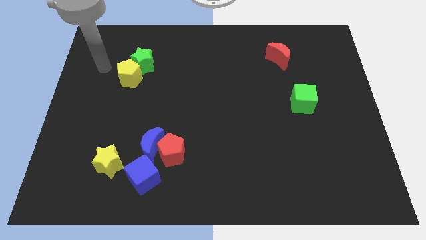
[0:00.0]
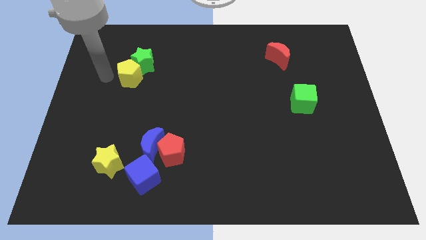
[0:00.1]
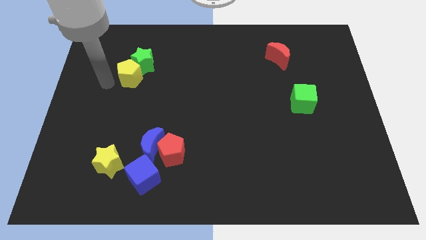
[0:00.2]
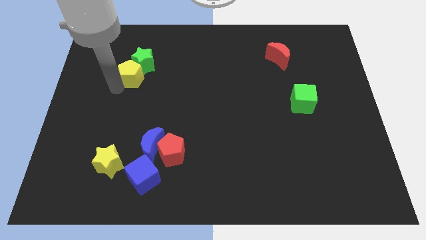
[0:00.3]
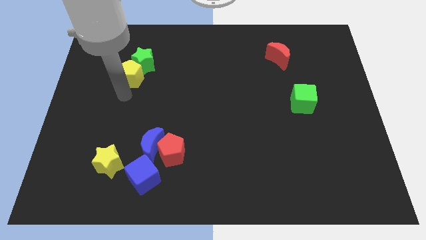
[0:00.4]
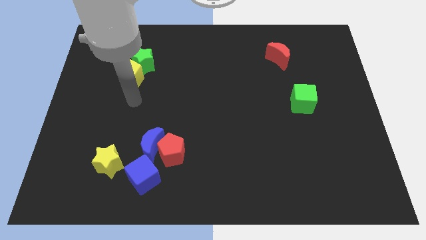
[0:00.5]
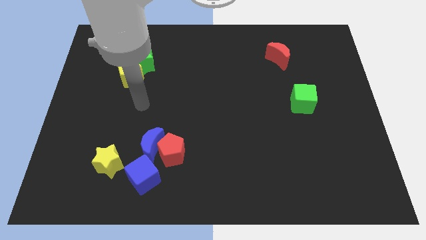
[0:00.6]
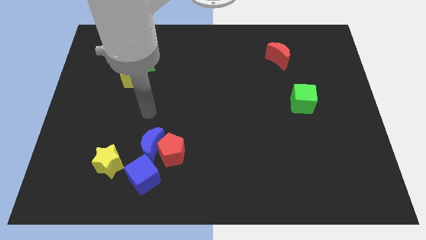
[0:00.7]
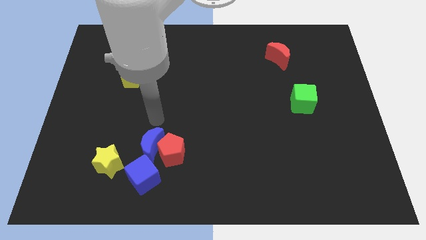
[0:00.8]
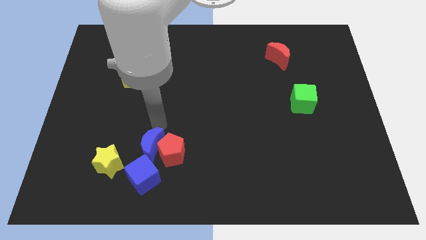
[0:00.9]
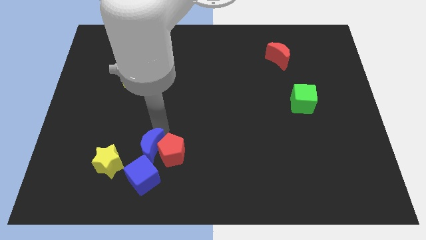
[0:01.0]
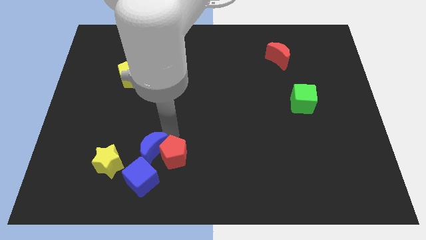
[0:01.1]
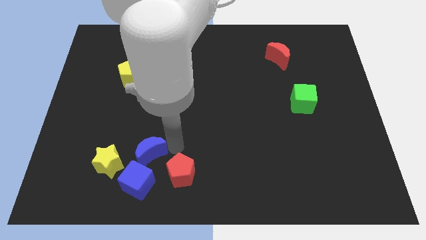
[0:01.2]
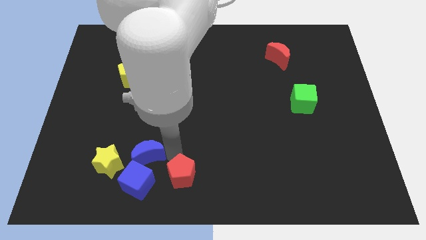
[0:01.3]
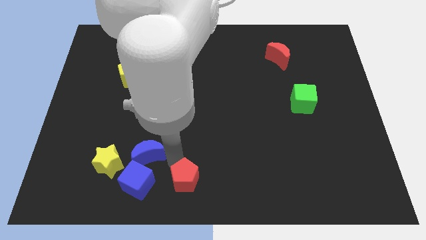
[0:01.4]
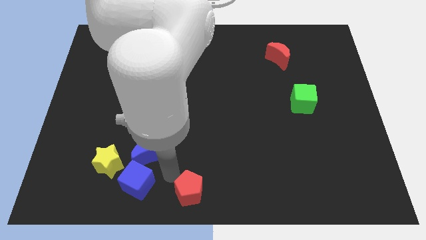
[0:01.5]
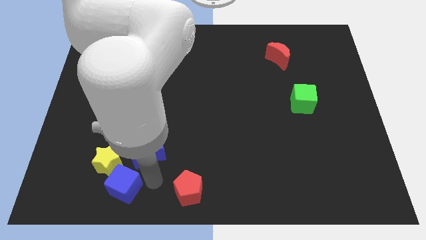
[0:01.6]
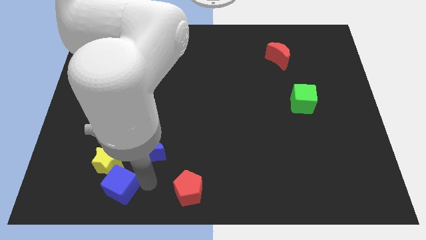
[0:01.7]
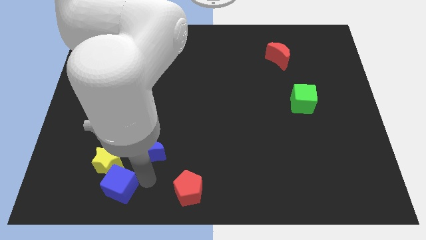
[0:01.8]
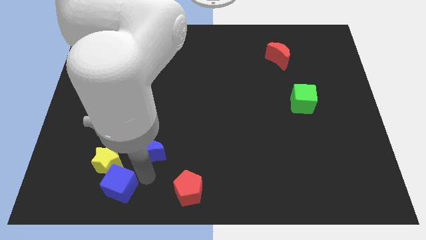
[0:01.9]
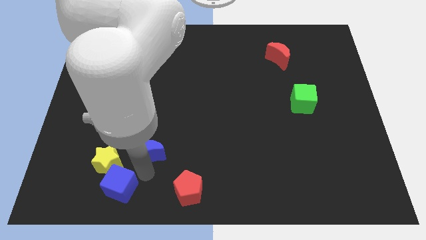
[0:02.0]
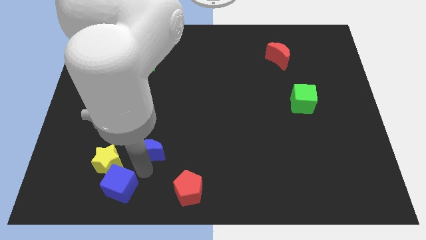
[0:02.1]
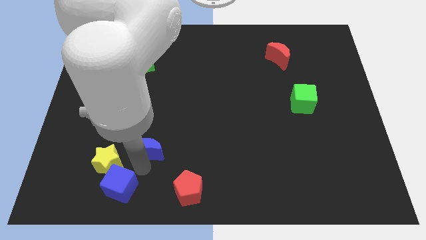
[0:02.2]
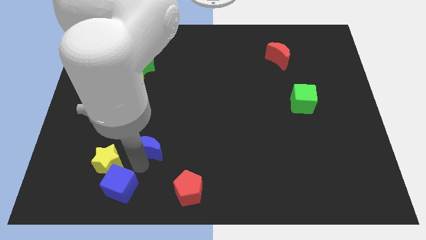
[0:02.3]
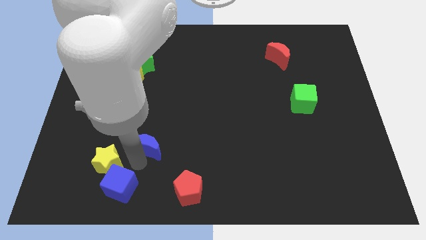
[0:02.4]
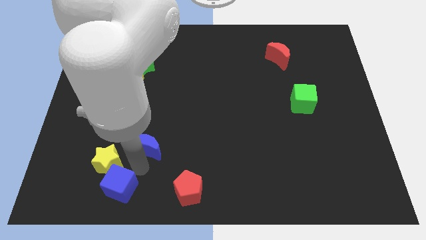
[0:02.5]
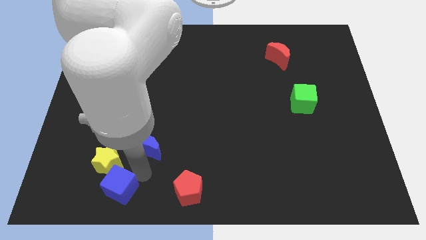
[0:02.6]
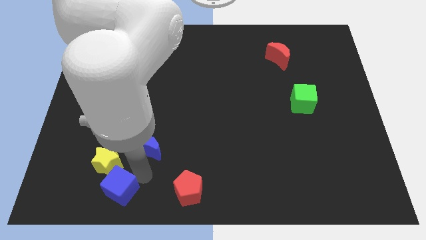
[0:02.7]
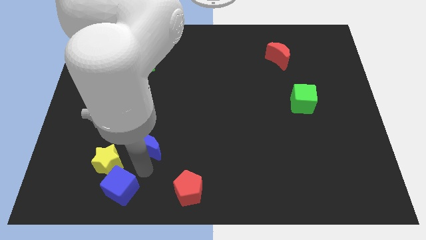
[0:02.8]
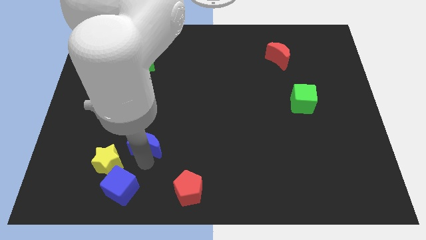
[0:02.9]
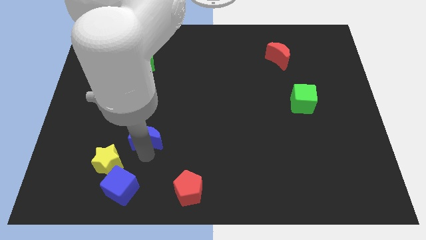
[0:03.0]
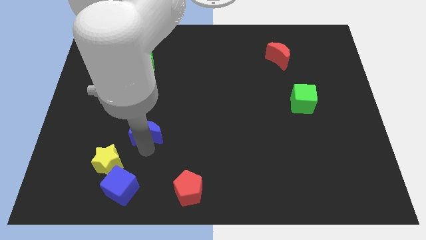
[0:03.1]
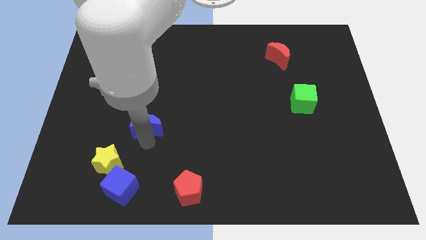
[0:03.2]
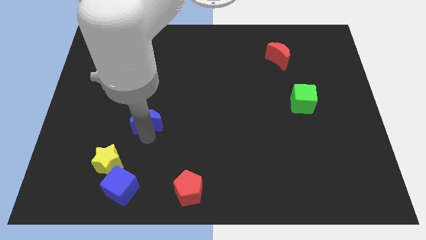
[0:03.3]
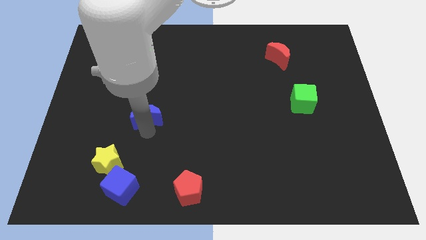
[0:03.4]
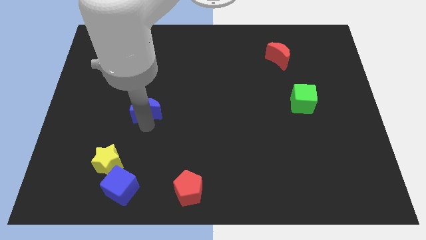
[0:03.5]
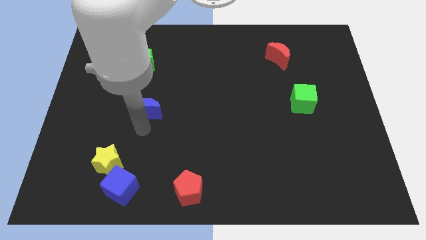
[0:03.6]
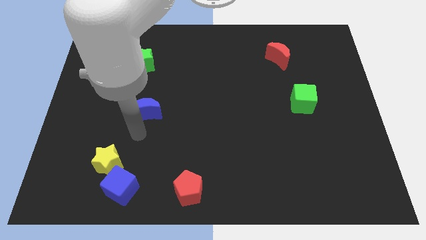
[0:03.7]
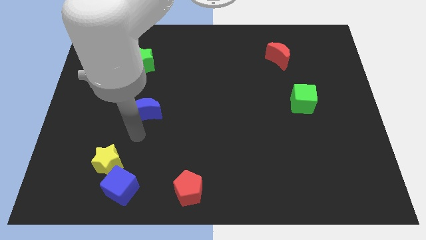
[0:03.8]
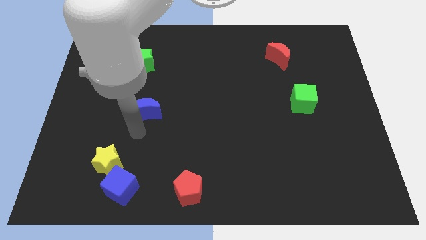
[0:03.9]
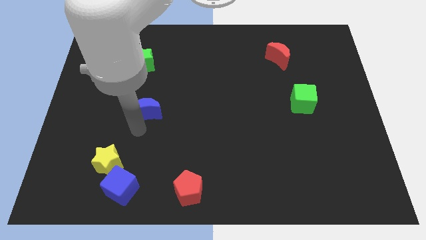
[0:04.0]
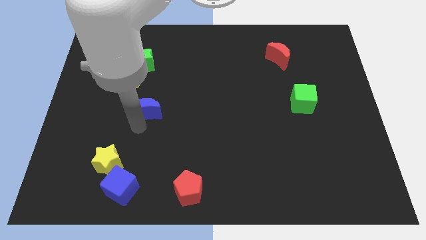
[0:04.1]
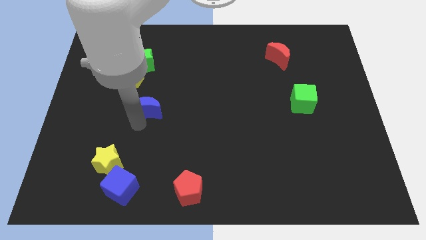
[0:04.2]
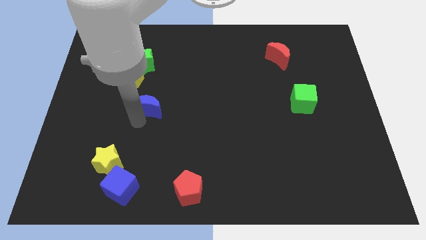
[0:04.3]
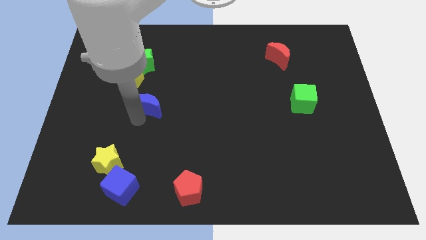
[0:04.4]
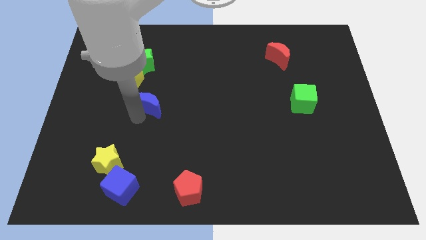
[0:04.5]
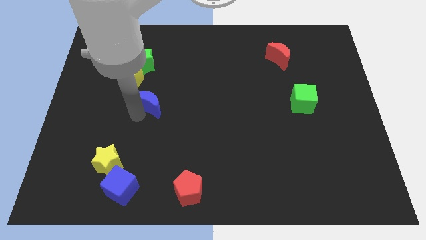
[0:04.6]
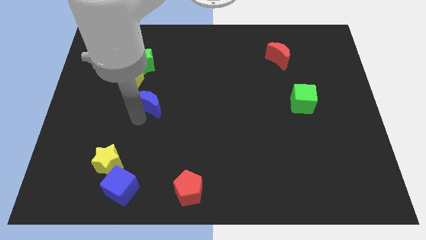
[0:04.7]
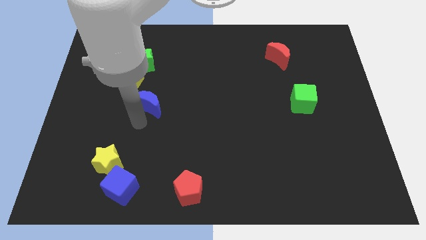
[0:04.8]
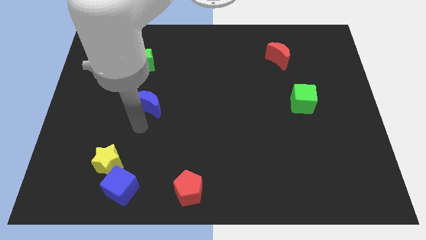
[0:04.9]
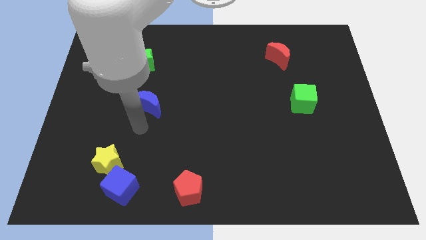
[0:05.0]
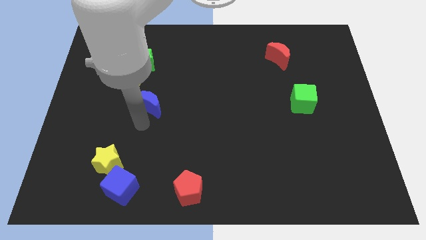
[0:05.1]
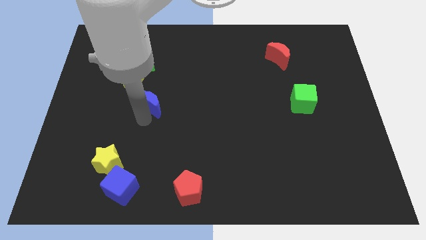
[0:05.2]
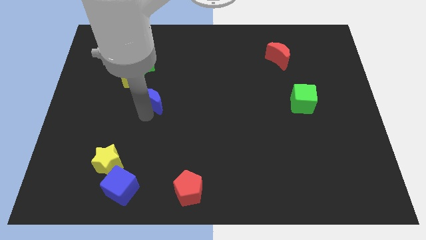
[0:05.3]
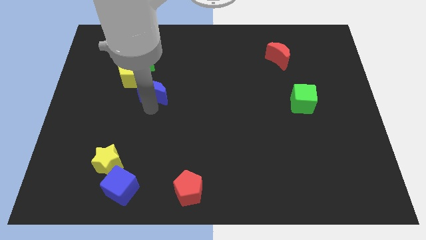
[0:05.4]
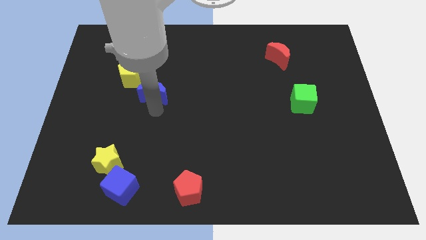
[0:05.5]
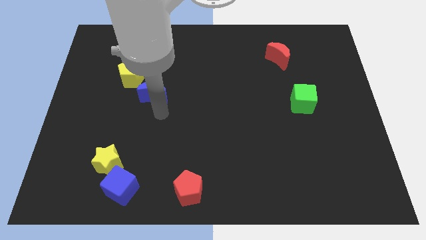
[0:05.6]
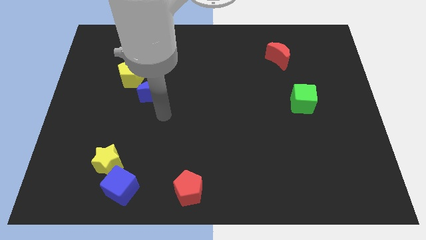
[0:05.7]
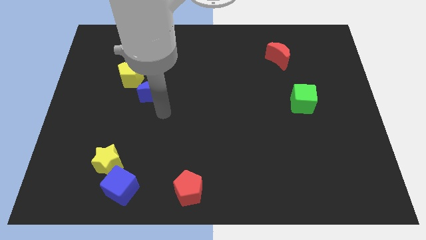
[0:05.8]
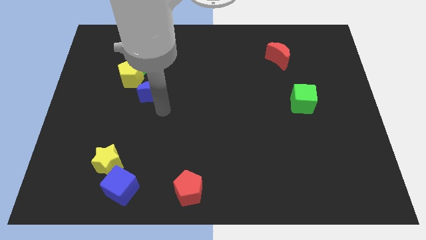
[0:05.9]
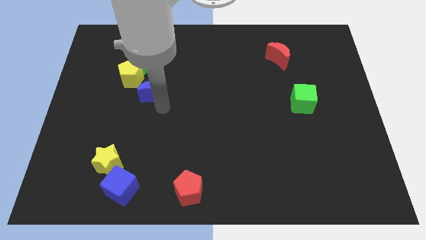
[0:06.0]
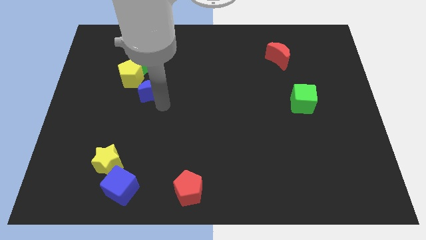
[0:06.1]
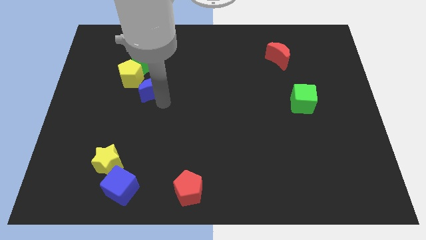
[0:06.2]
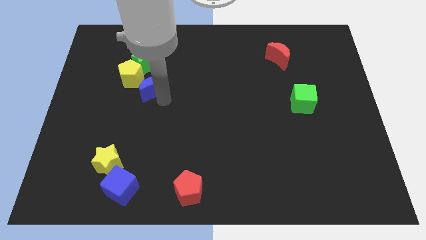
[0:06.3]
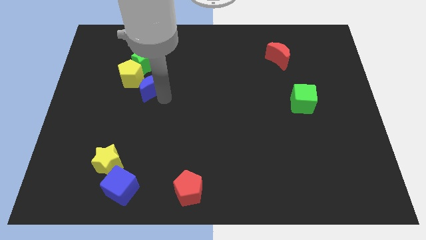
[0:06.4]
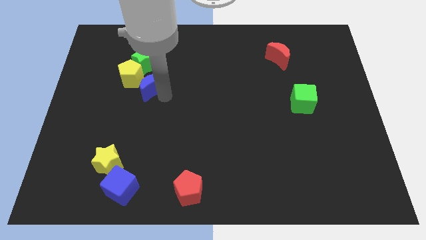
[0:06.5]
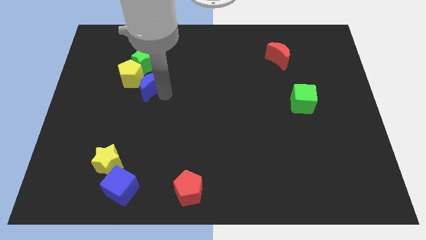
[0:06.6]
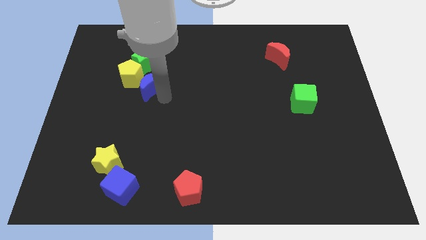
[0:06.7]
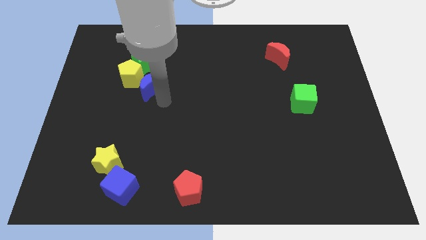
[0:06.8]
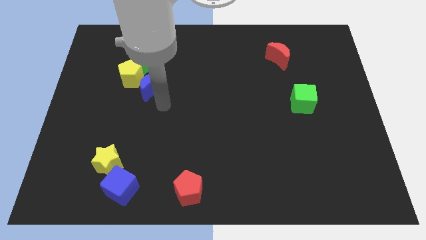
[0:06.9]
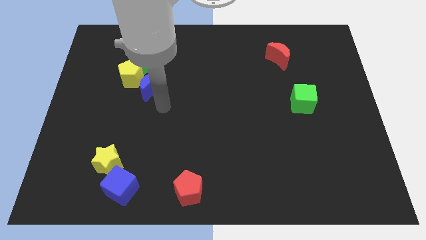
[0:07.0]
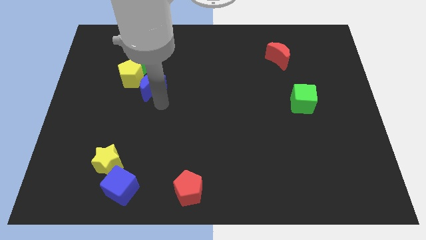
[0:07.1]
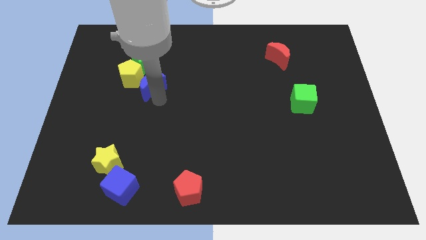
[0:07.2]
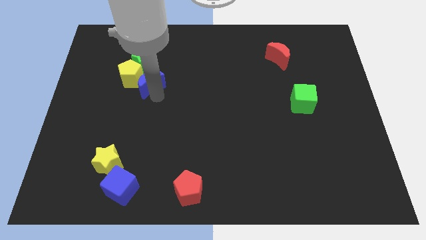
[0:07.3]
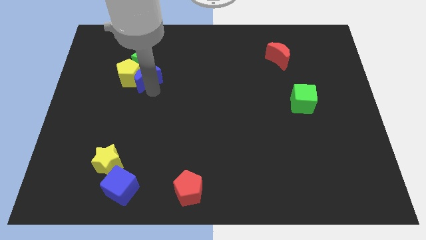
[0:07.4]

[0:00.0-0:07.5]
slide the blue moon towards the green star

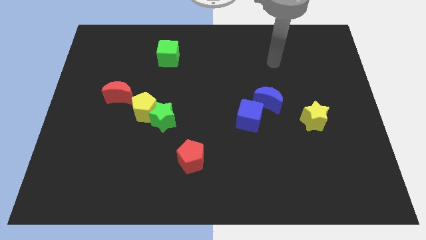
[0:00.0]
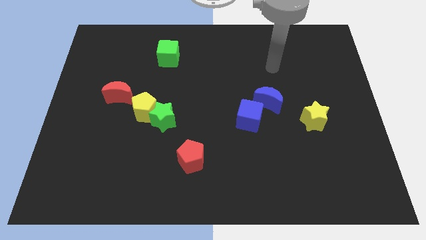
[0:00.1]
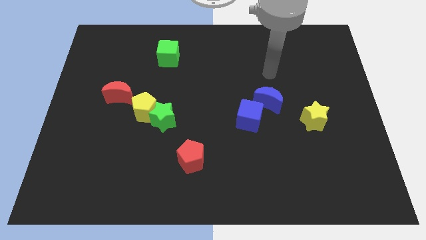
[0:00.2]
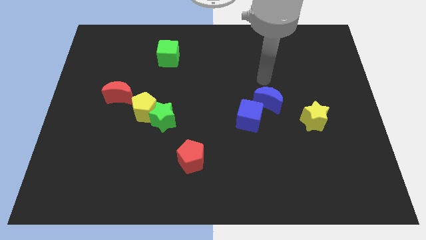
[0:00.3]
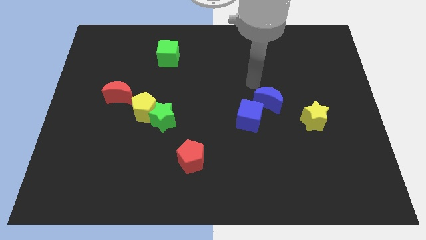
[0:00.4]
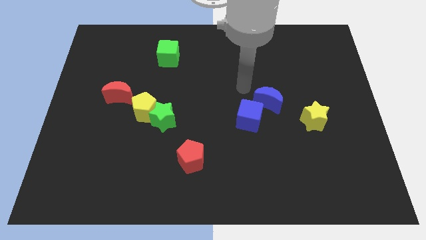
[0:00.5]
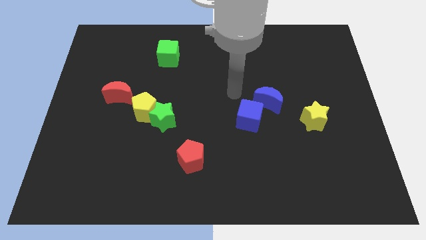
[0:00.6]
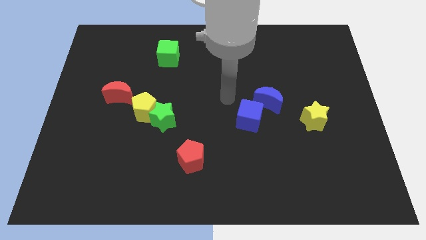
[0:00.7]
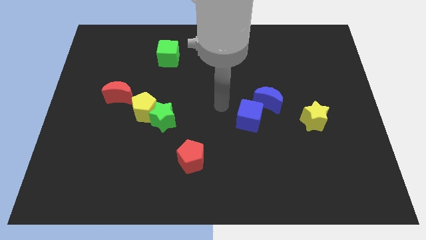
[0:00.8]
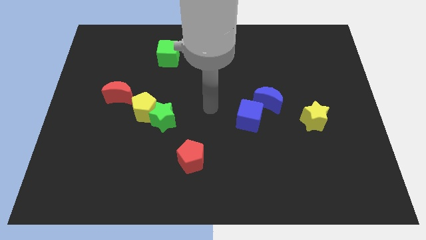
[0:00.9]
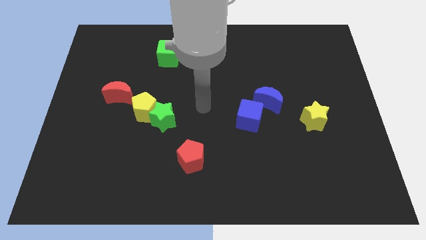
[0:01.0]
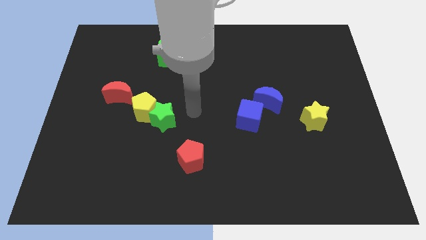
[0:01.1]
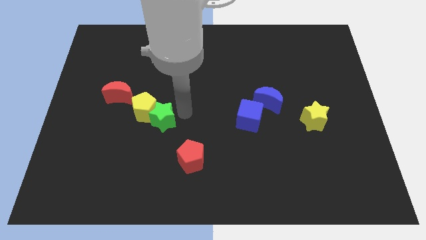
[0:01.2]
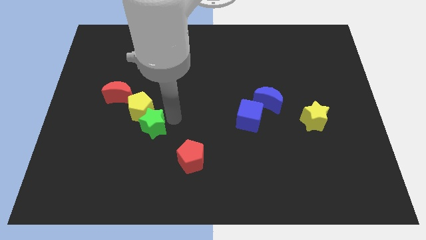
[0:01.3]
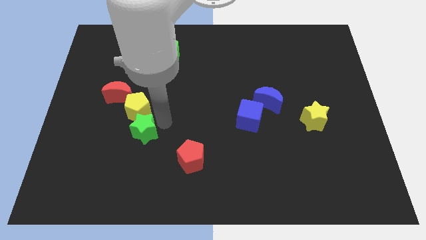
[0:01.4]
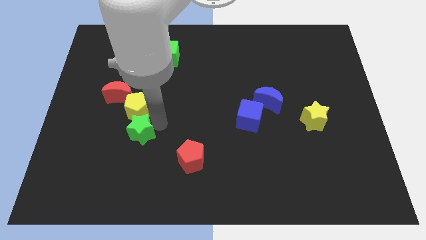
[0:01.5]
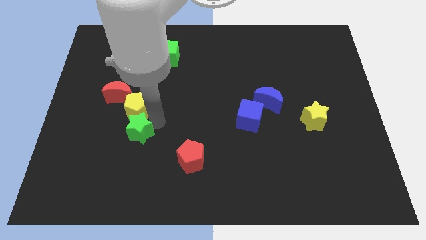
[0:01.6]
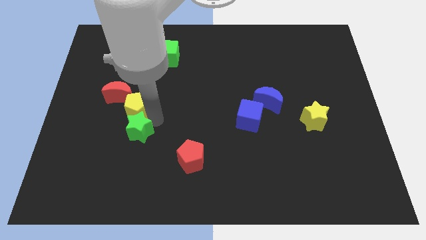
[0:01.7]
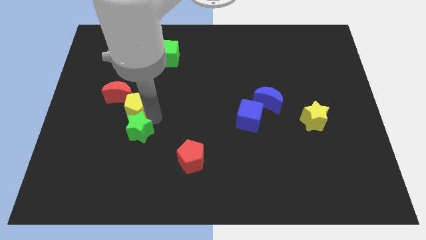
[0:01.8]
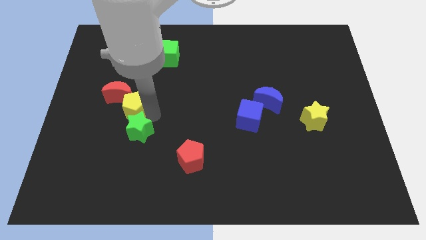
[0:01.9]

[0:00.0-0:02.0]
push the yellow pentagon next to the red moon
